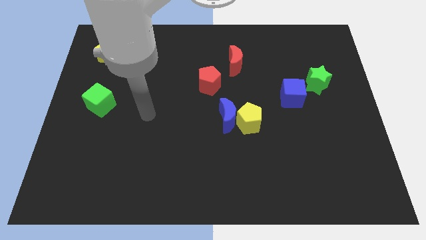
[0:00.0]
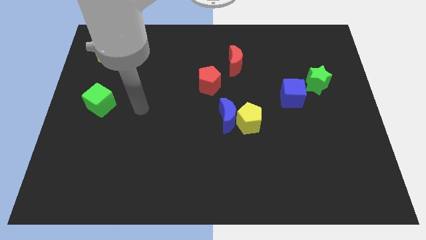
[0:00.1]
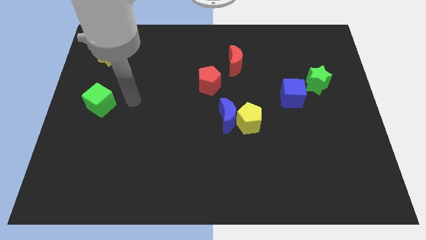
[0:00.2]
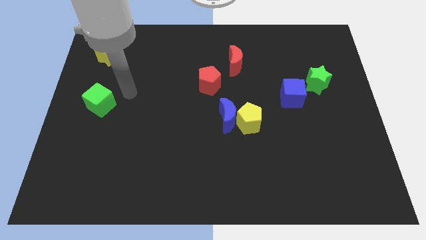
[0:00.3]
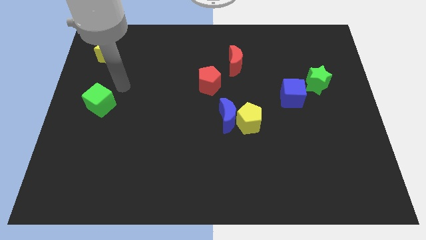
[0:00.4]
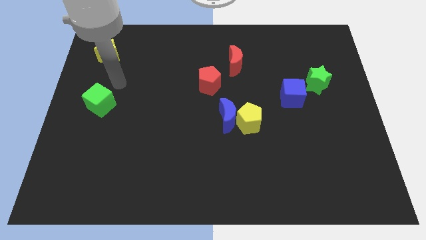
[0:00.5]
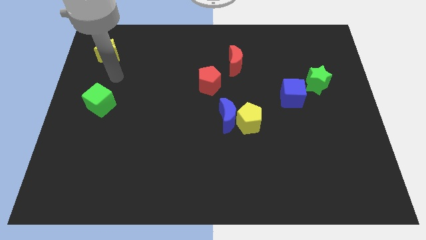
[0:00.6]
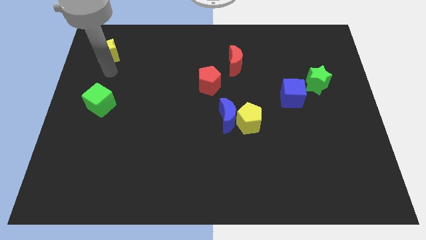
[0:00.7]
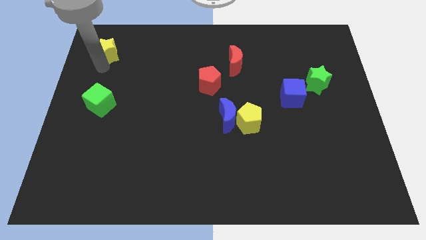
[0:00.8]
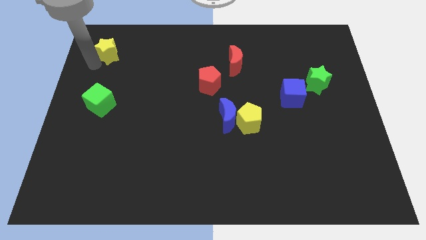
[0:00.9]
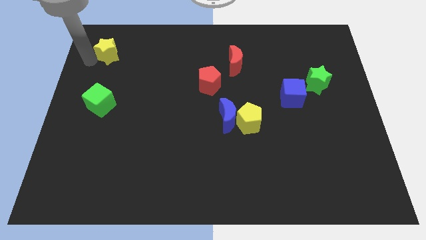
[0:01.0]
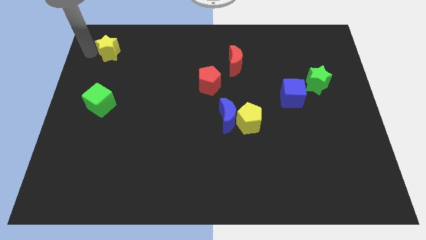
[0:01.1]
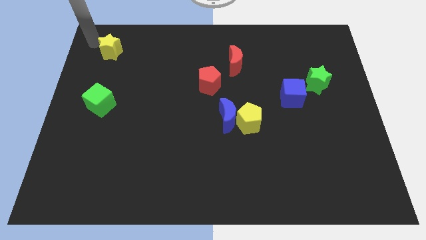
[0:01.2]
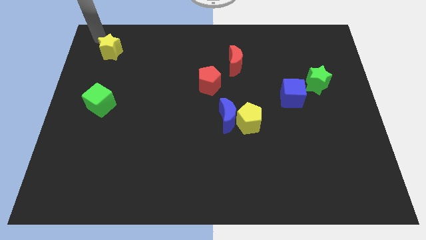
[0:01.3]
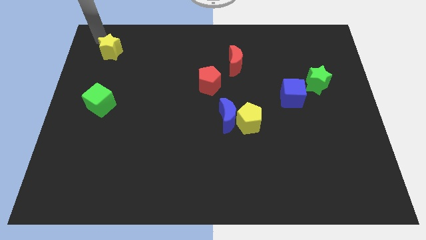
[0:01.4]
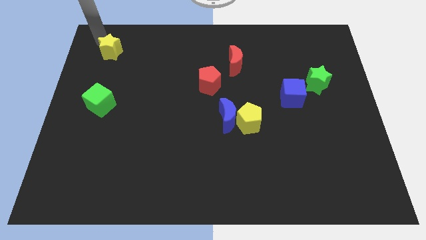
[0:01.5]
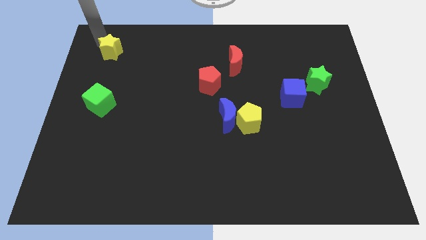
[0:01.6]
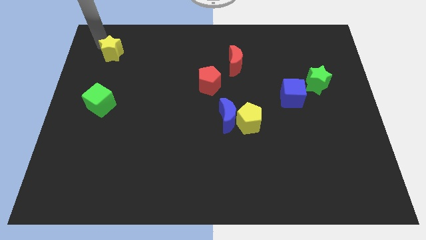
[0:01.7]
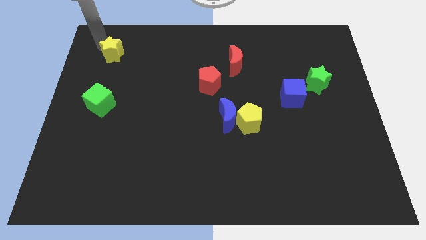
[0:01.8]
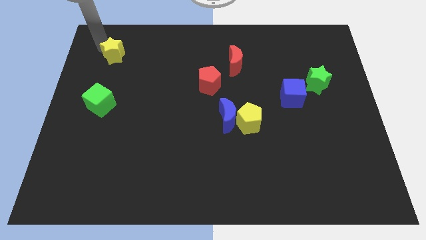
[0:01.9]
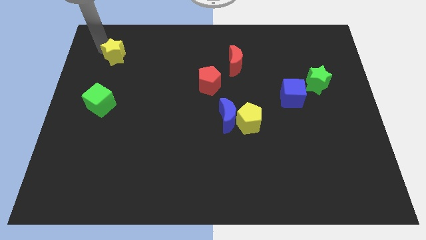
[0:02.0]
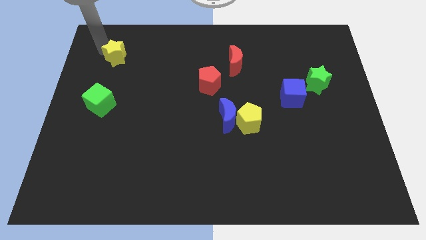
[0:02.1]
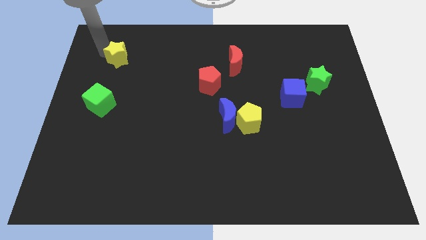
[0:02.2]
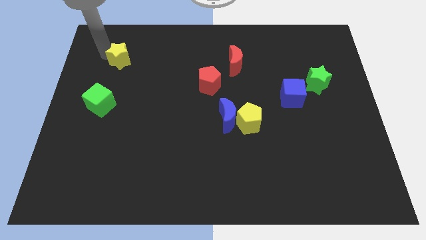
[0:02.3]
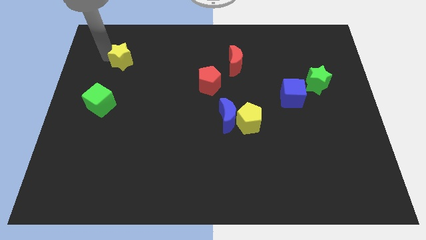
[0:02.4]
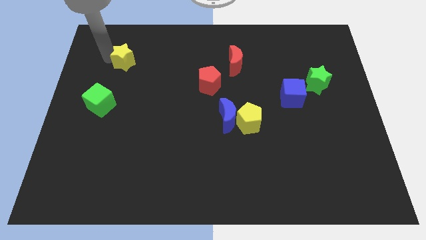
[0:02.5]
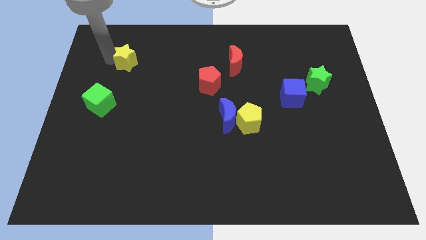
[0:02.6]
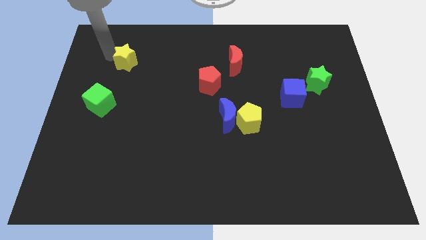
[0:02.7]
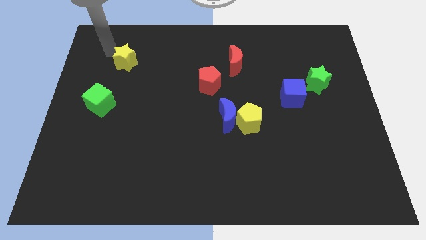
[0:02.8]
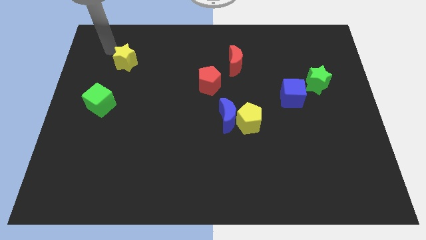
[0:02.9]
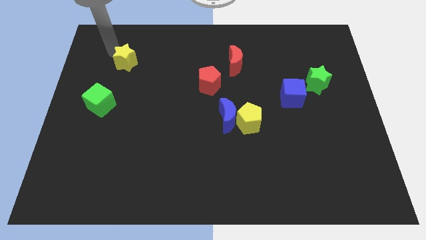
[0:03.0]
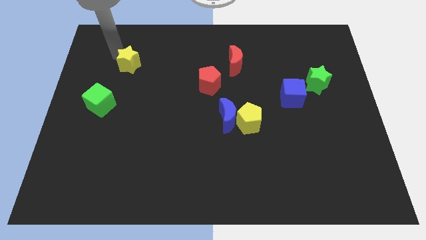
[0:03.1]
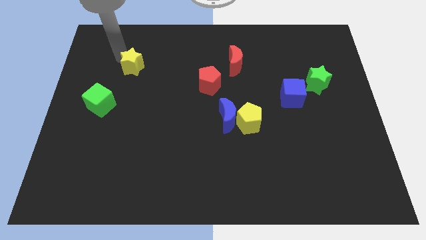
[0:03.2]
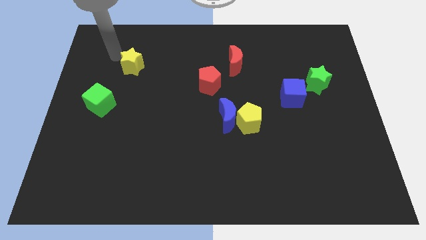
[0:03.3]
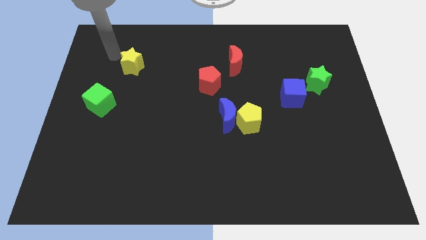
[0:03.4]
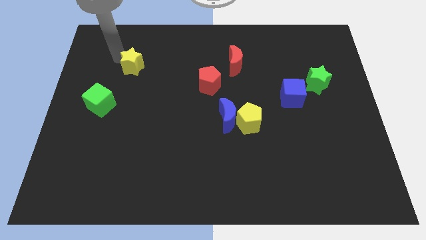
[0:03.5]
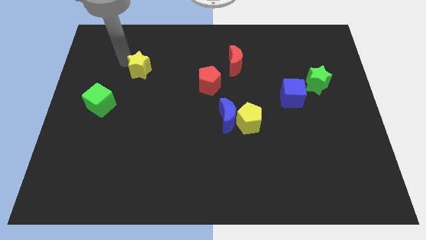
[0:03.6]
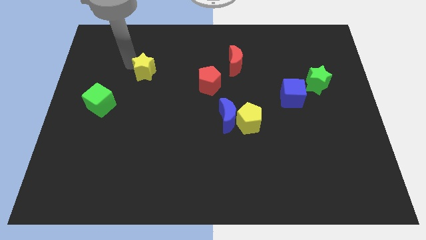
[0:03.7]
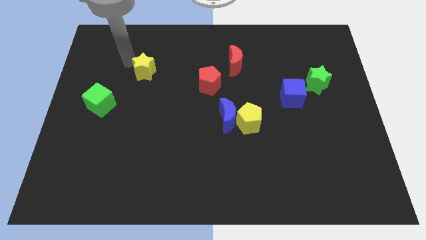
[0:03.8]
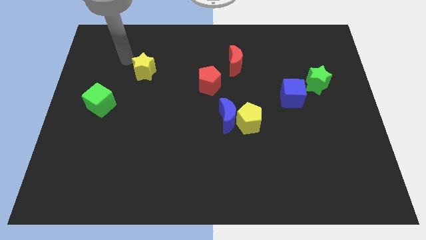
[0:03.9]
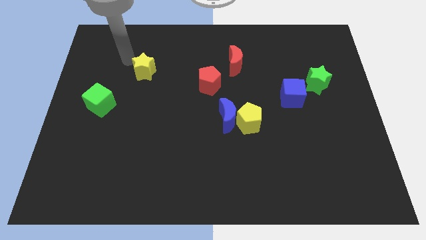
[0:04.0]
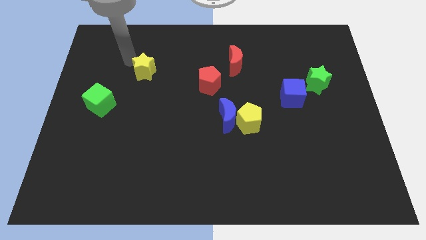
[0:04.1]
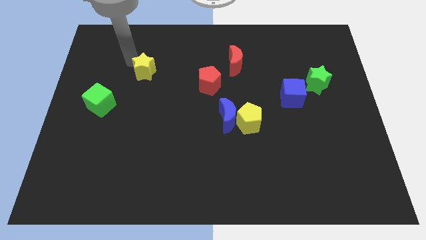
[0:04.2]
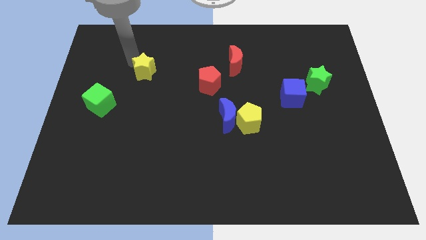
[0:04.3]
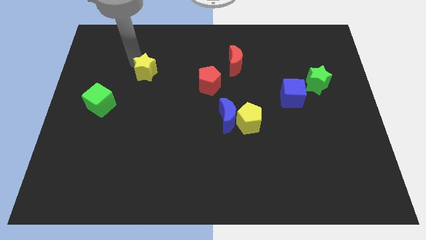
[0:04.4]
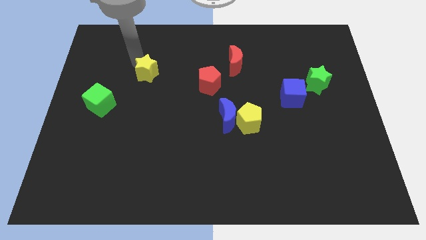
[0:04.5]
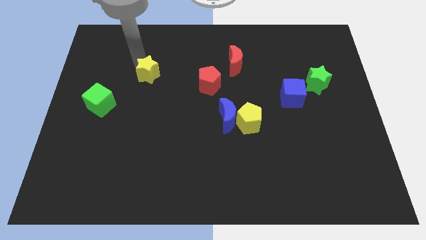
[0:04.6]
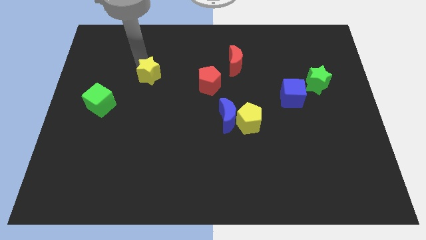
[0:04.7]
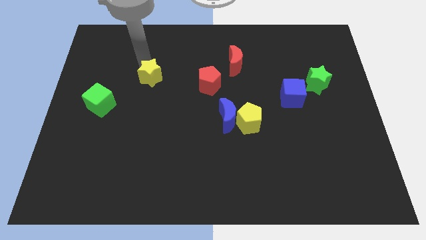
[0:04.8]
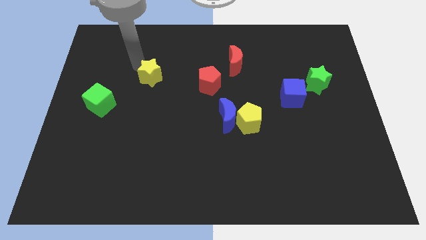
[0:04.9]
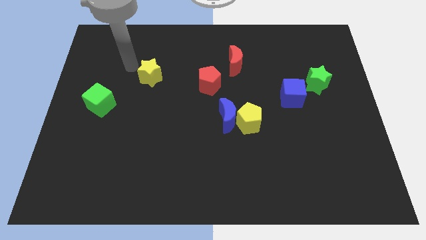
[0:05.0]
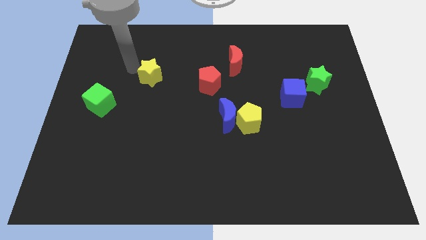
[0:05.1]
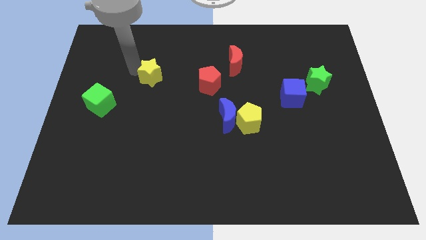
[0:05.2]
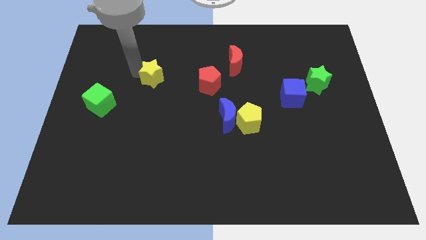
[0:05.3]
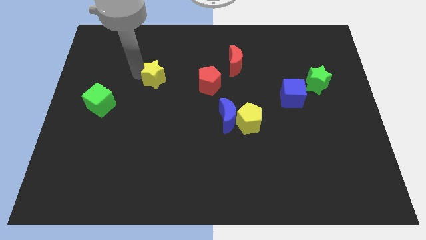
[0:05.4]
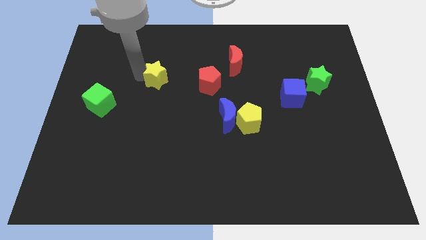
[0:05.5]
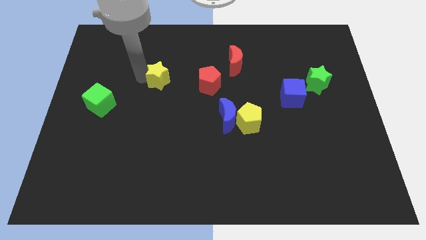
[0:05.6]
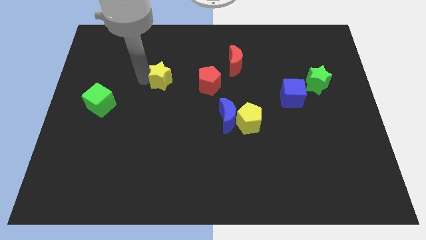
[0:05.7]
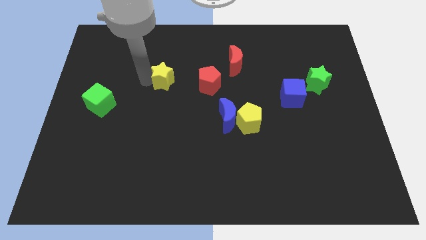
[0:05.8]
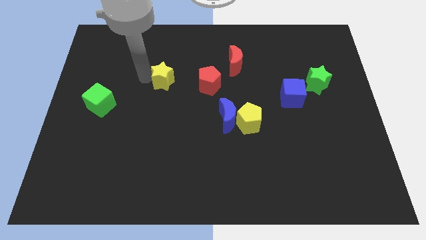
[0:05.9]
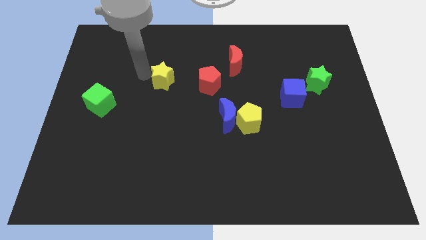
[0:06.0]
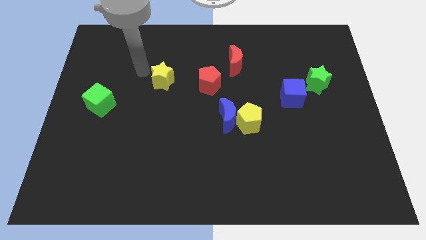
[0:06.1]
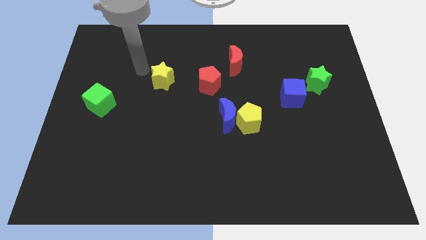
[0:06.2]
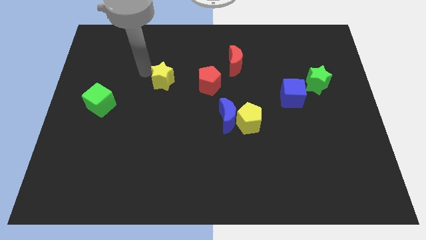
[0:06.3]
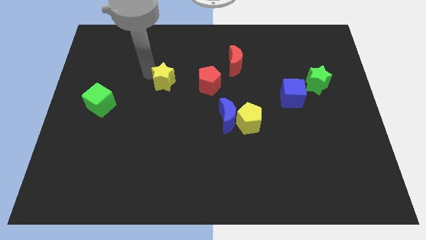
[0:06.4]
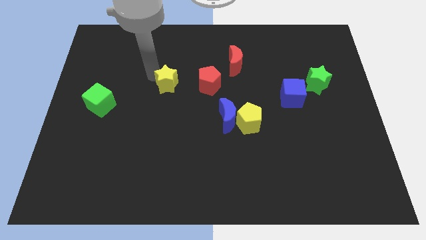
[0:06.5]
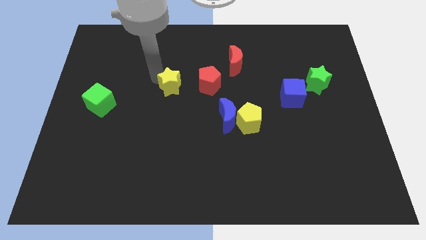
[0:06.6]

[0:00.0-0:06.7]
put the yellow star to the center

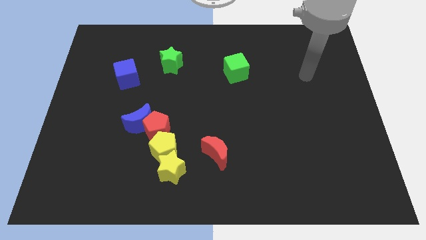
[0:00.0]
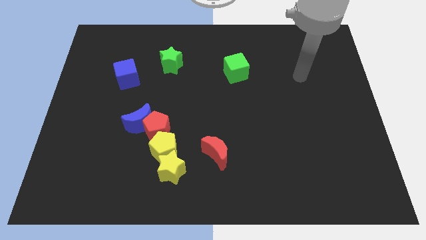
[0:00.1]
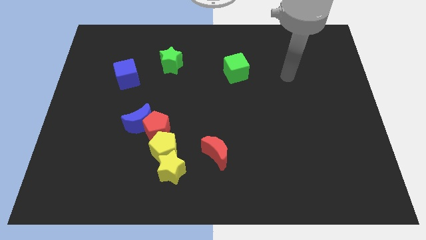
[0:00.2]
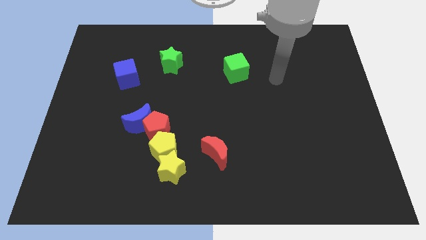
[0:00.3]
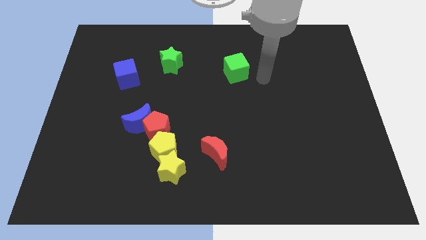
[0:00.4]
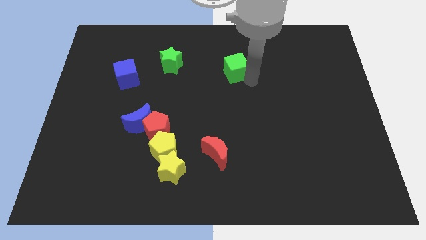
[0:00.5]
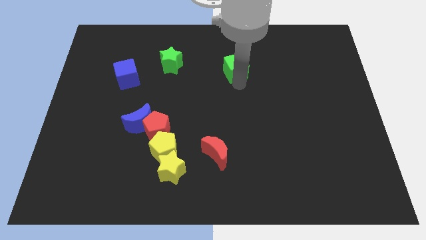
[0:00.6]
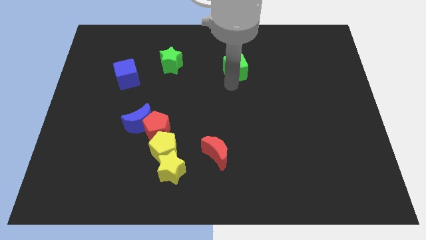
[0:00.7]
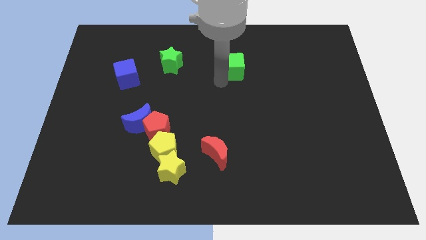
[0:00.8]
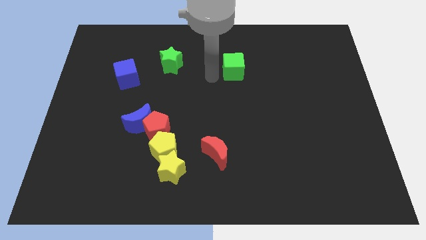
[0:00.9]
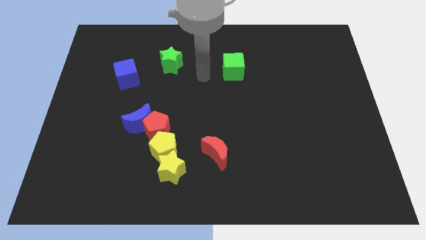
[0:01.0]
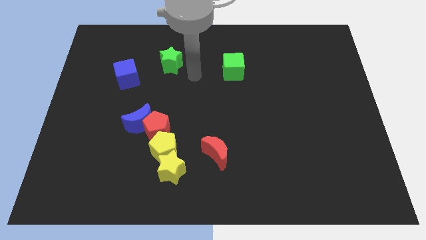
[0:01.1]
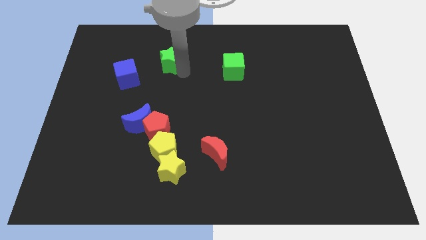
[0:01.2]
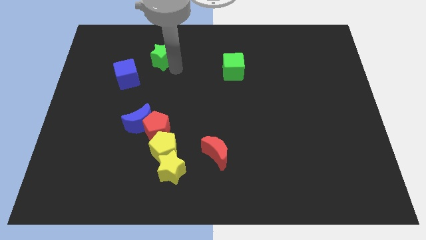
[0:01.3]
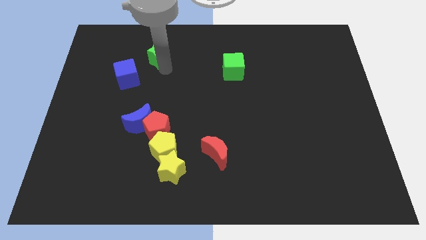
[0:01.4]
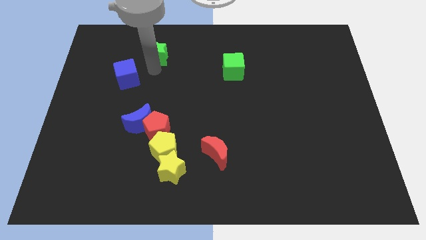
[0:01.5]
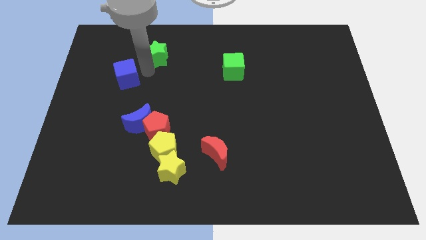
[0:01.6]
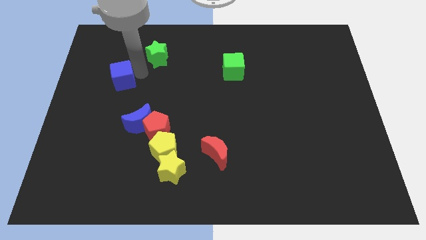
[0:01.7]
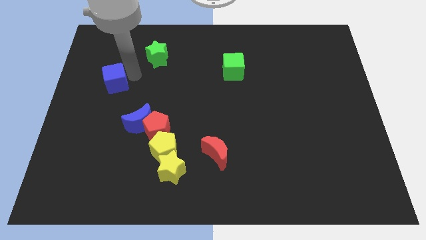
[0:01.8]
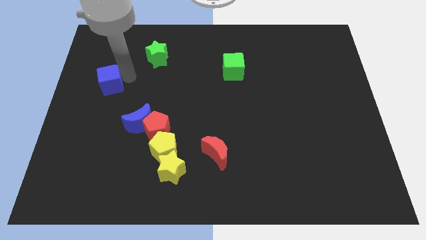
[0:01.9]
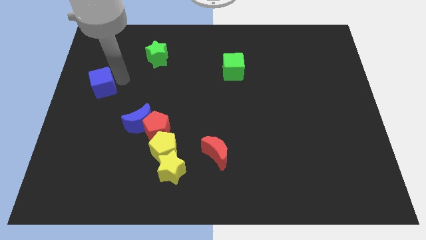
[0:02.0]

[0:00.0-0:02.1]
put the blue cube to the center left
